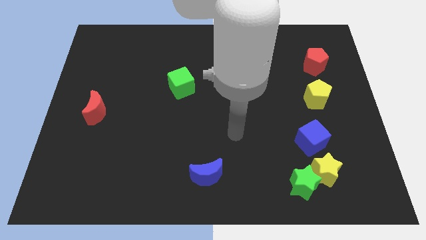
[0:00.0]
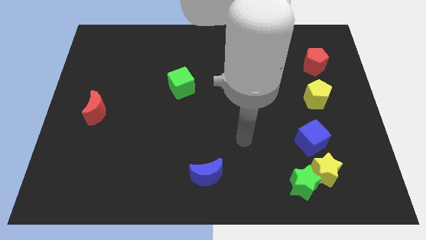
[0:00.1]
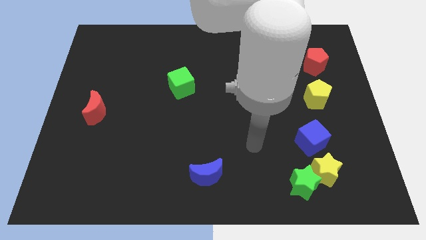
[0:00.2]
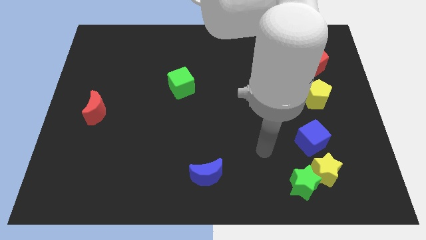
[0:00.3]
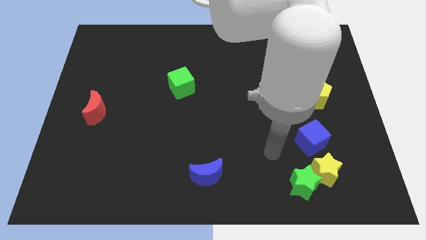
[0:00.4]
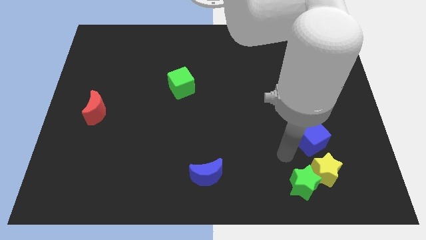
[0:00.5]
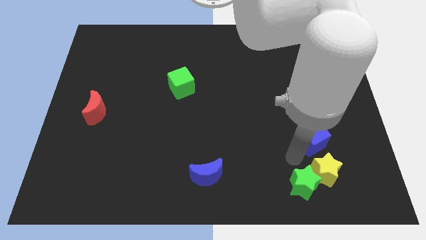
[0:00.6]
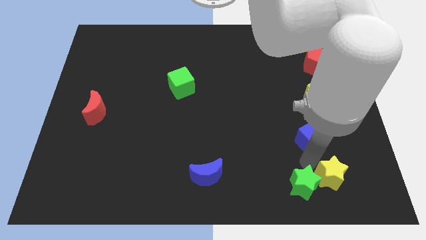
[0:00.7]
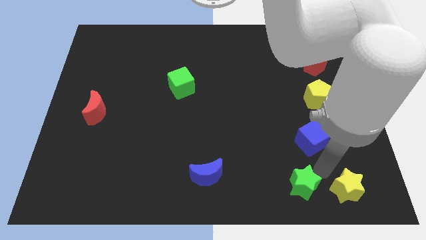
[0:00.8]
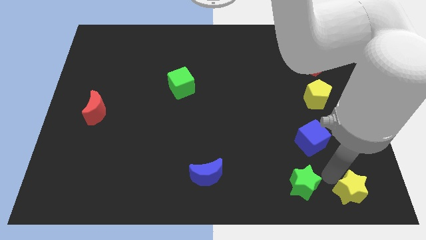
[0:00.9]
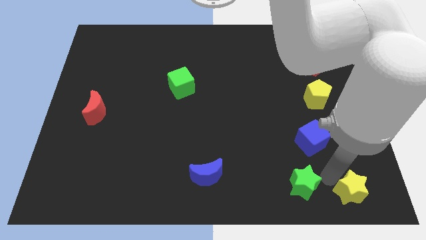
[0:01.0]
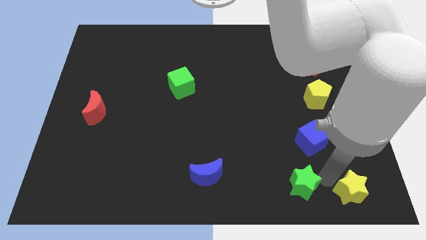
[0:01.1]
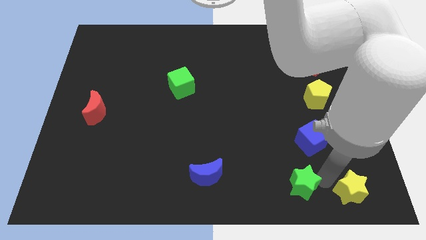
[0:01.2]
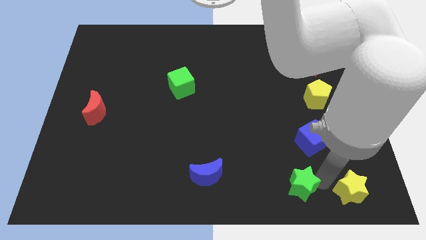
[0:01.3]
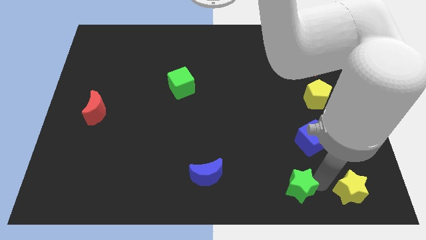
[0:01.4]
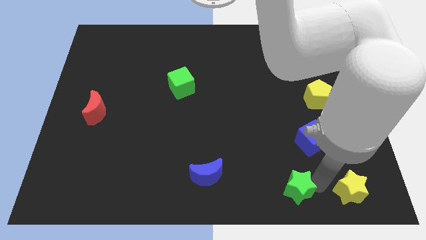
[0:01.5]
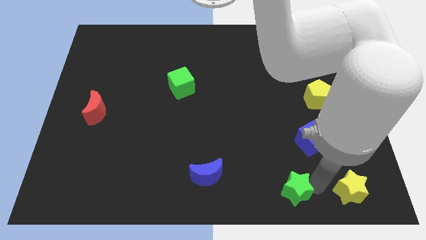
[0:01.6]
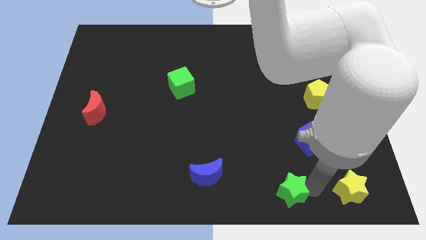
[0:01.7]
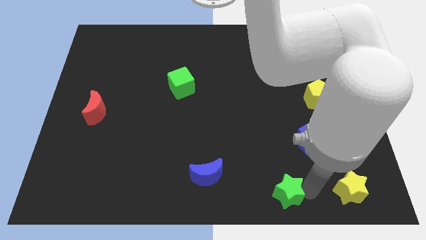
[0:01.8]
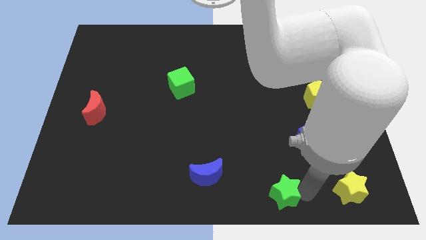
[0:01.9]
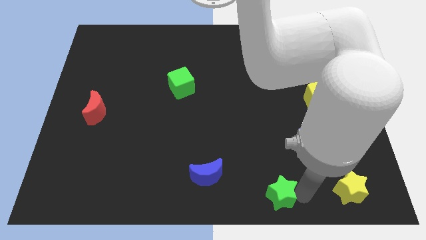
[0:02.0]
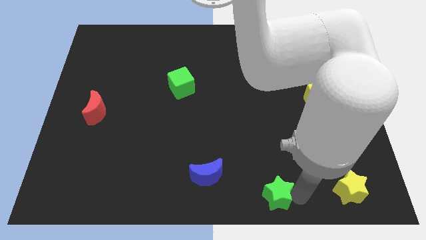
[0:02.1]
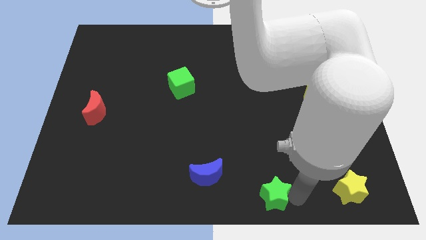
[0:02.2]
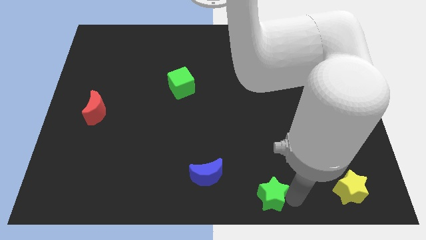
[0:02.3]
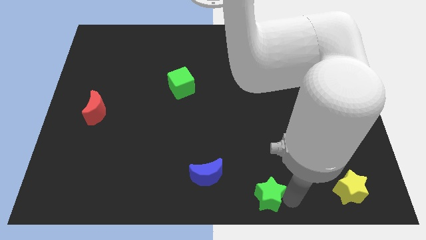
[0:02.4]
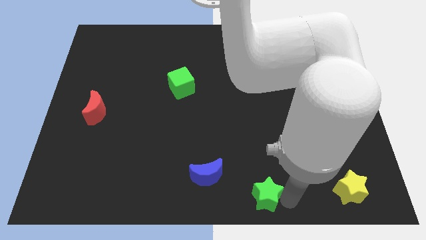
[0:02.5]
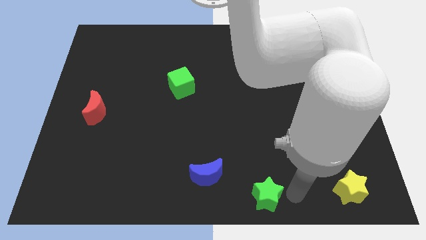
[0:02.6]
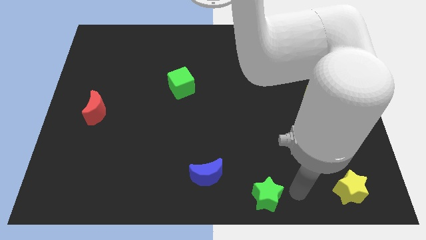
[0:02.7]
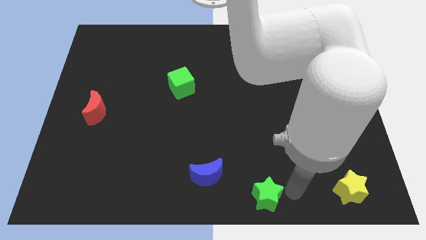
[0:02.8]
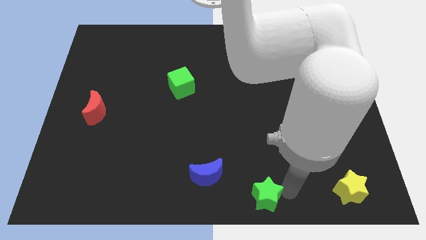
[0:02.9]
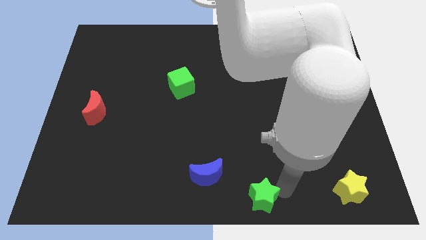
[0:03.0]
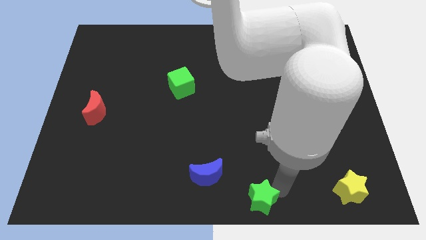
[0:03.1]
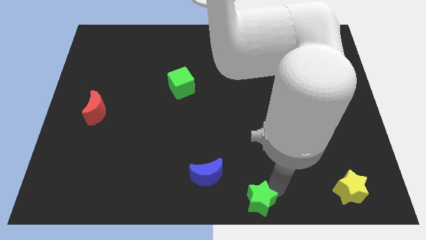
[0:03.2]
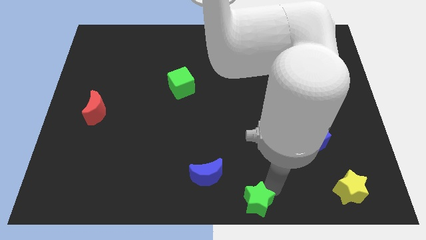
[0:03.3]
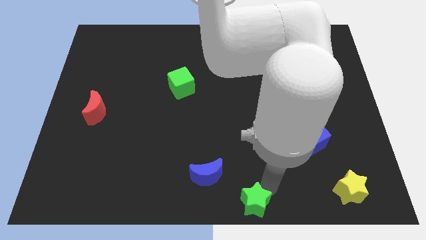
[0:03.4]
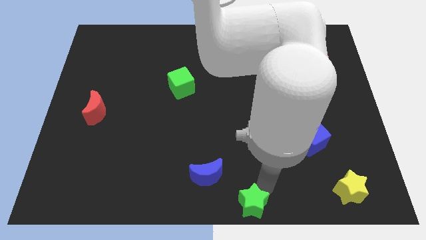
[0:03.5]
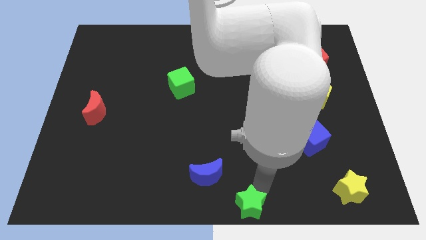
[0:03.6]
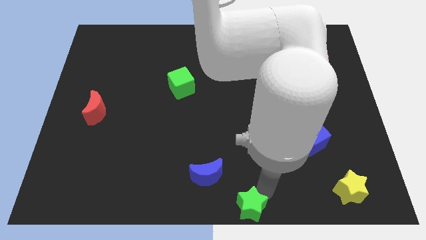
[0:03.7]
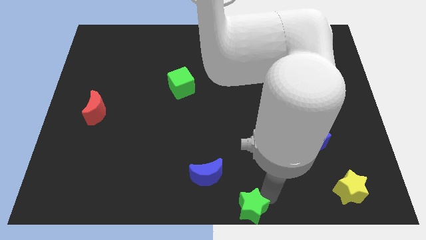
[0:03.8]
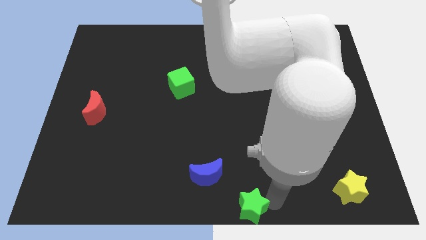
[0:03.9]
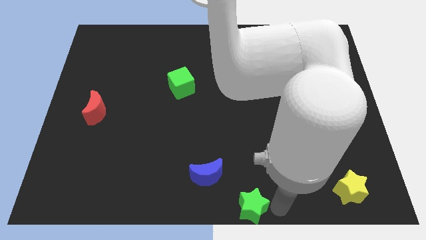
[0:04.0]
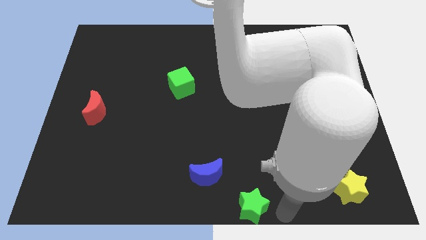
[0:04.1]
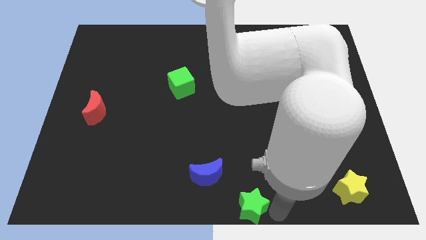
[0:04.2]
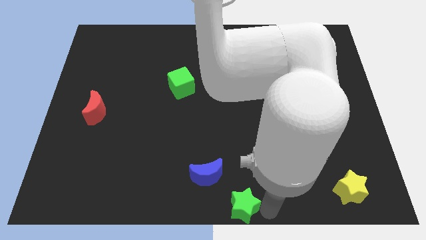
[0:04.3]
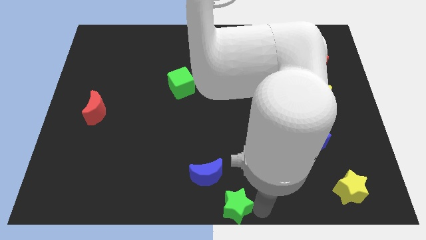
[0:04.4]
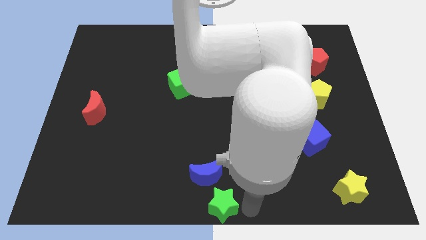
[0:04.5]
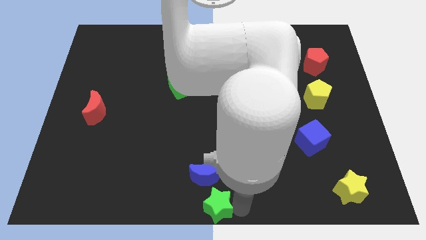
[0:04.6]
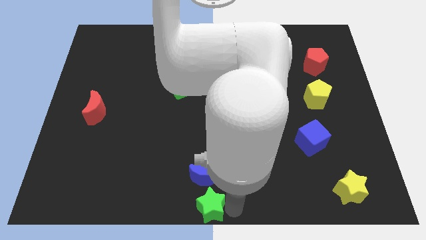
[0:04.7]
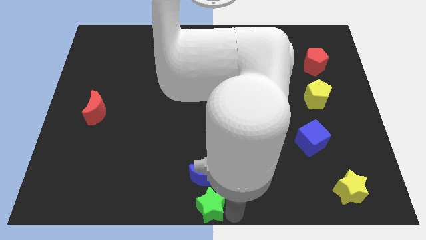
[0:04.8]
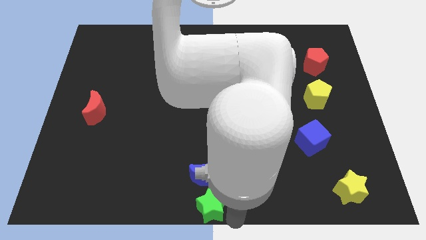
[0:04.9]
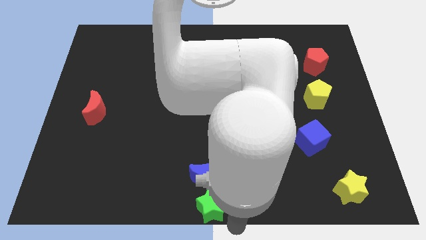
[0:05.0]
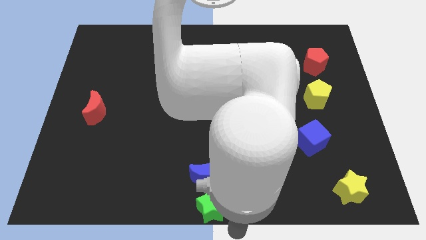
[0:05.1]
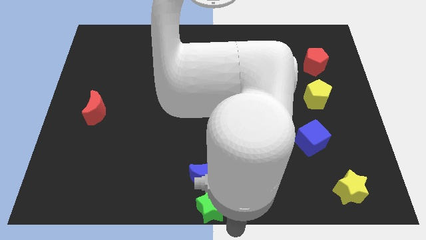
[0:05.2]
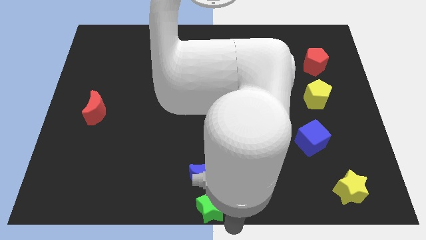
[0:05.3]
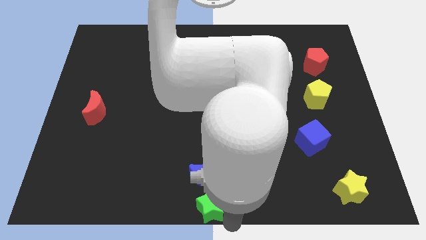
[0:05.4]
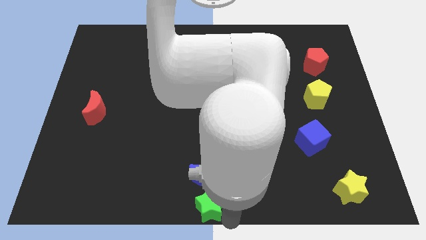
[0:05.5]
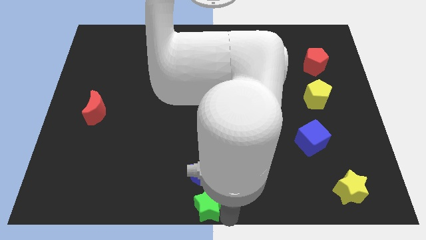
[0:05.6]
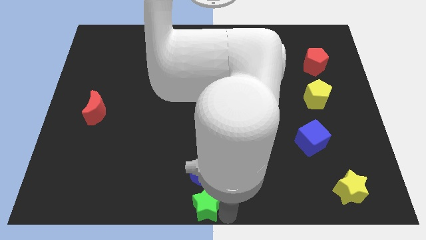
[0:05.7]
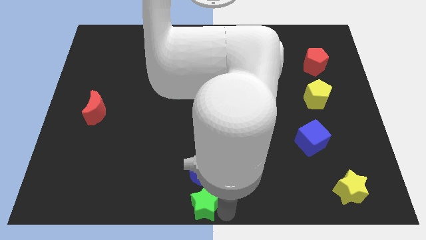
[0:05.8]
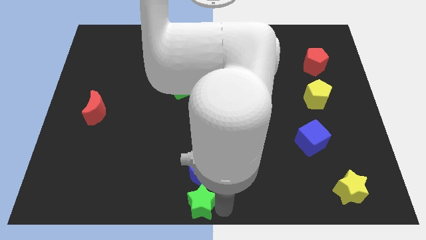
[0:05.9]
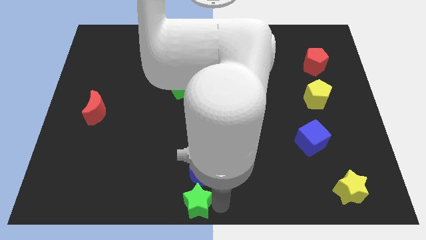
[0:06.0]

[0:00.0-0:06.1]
push the green star to the left

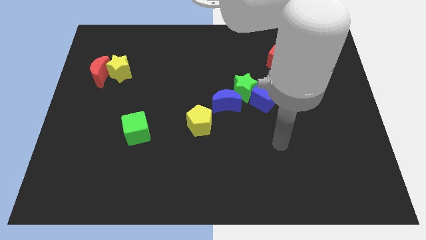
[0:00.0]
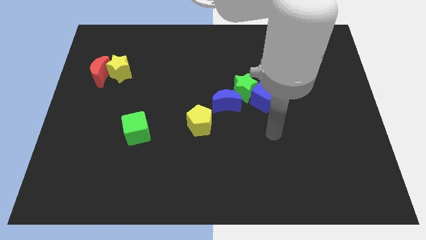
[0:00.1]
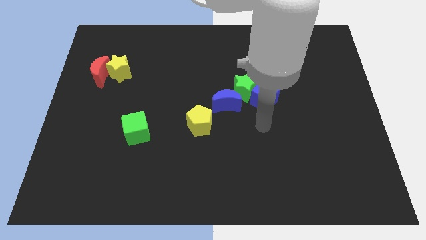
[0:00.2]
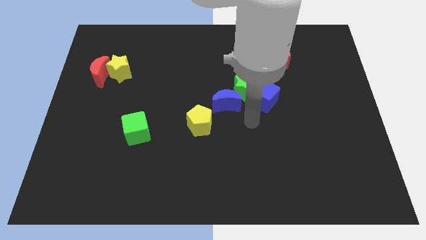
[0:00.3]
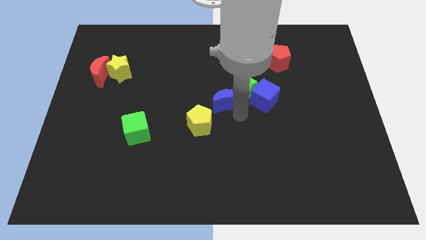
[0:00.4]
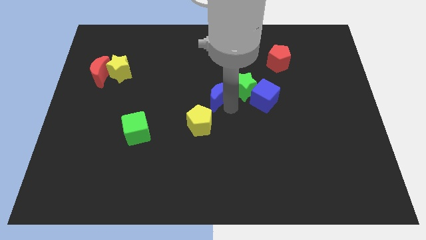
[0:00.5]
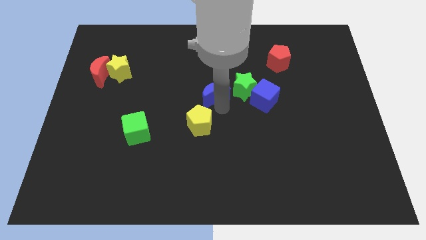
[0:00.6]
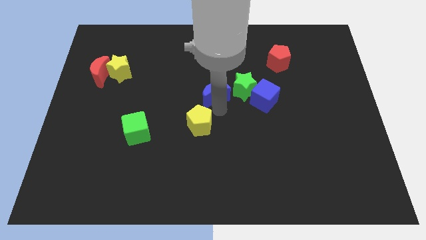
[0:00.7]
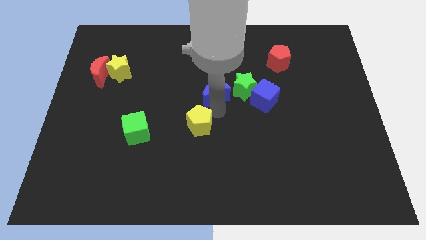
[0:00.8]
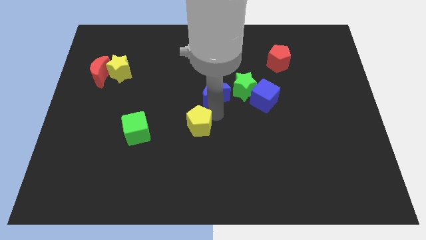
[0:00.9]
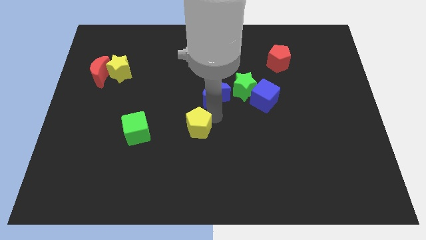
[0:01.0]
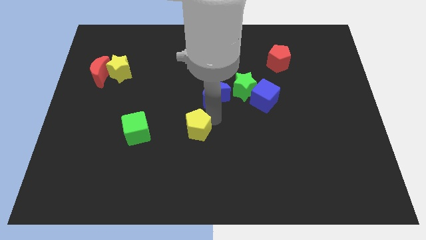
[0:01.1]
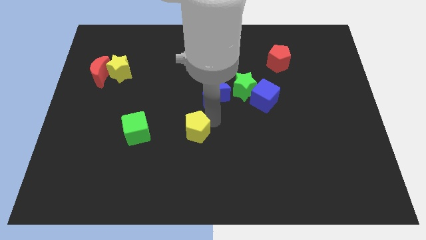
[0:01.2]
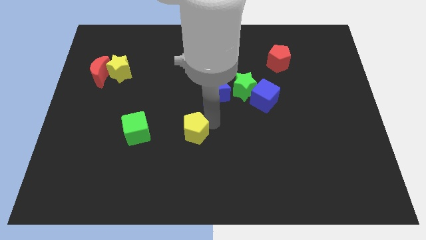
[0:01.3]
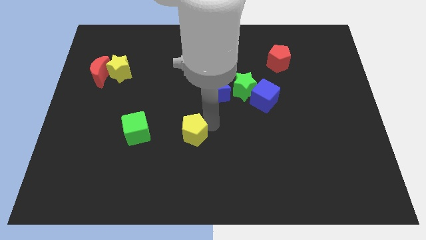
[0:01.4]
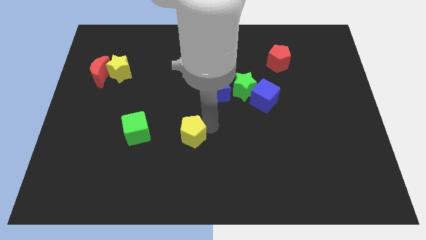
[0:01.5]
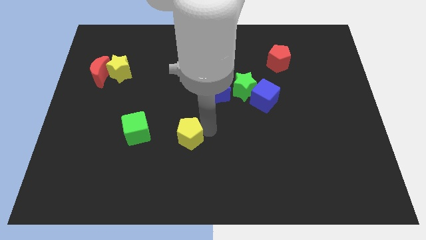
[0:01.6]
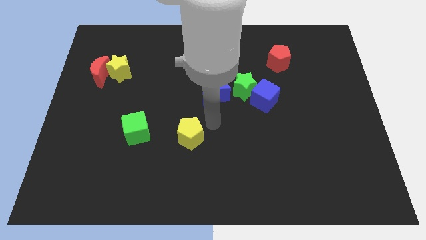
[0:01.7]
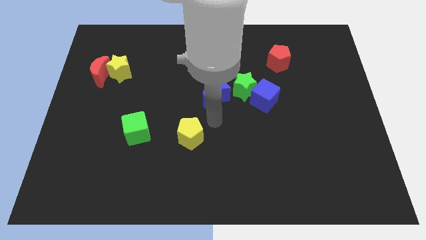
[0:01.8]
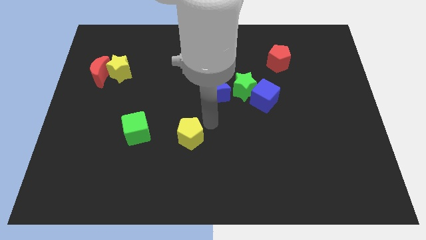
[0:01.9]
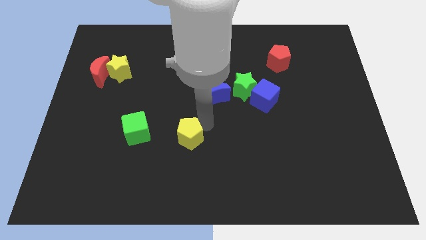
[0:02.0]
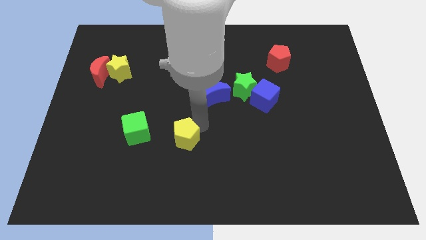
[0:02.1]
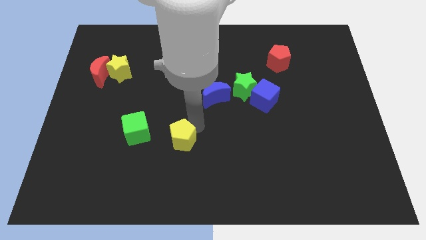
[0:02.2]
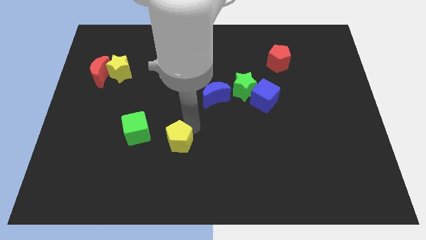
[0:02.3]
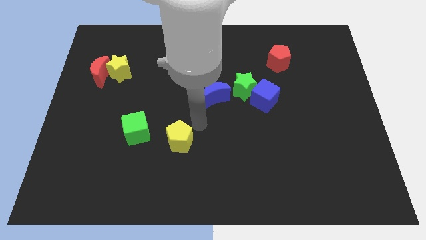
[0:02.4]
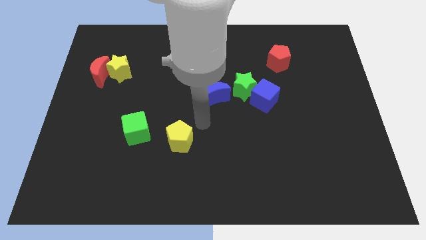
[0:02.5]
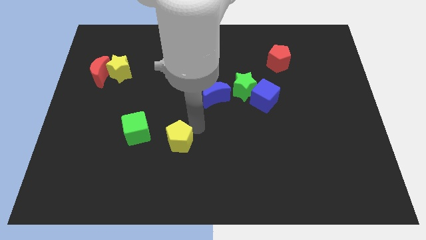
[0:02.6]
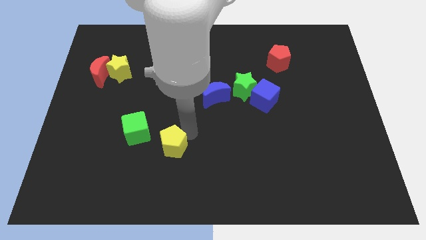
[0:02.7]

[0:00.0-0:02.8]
move the yellow pentagon downwards and then left somewhat
